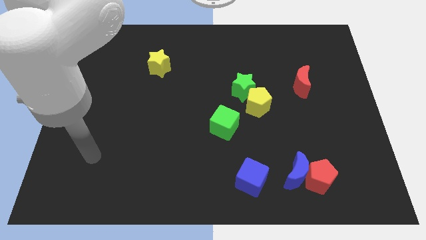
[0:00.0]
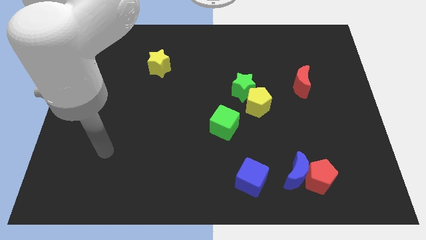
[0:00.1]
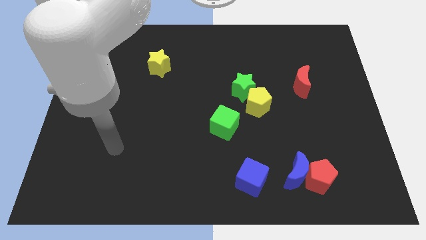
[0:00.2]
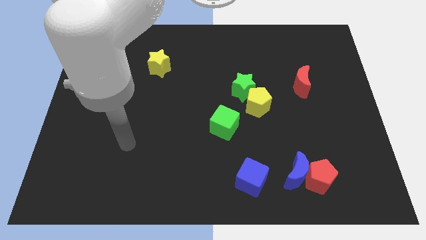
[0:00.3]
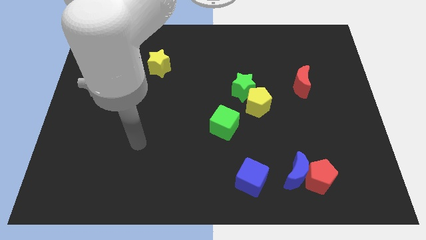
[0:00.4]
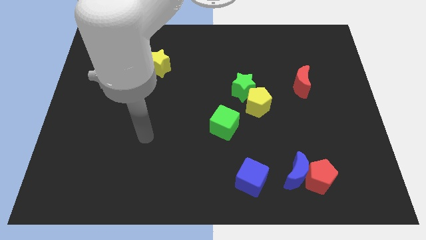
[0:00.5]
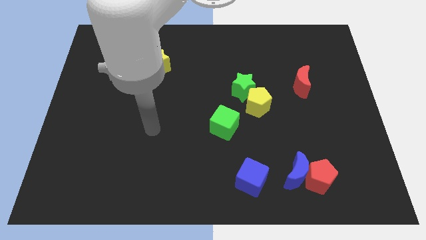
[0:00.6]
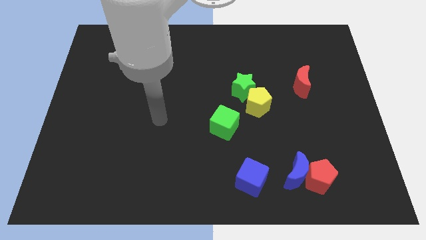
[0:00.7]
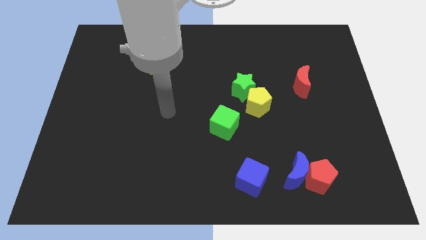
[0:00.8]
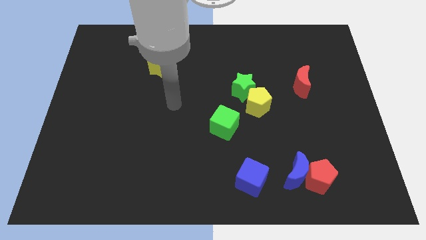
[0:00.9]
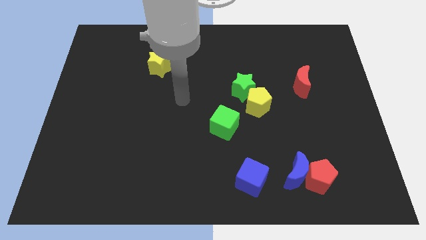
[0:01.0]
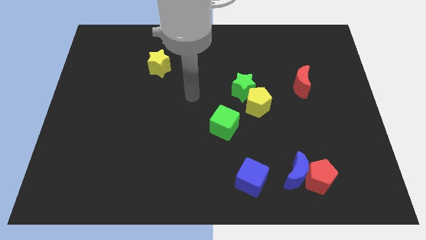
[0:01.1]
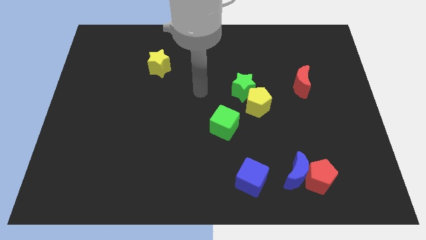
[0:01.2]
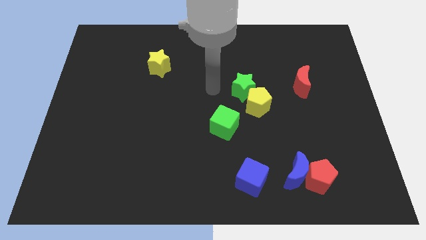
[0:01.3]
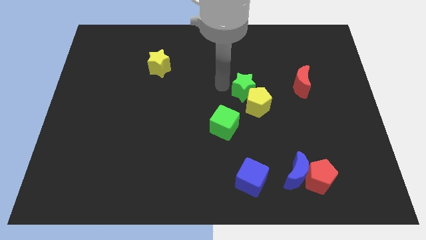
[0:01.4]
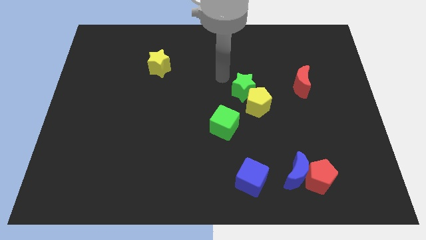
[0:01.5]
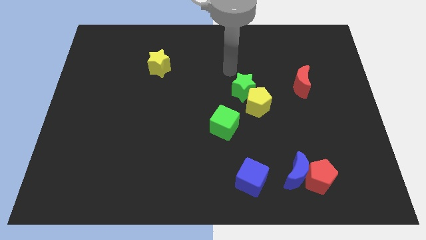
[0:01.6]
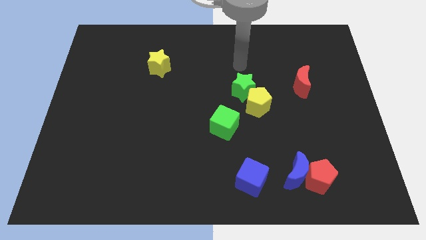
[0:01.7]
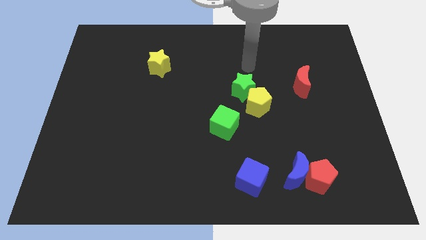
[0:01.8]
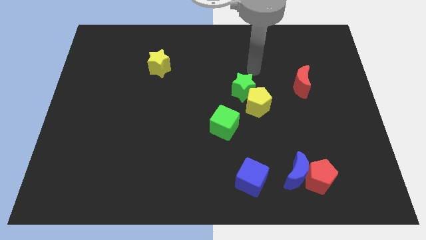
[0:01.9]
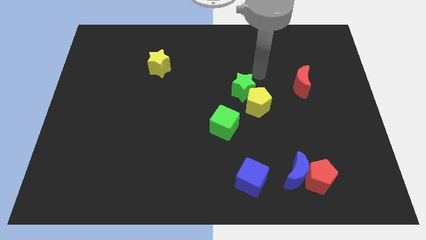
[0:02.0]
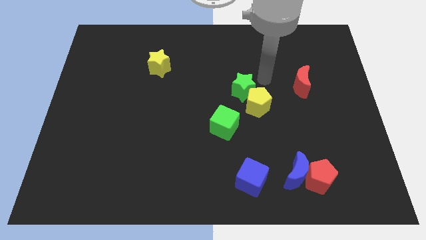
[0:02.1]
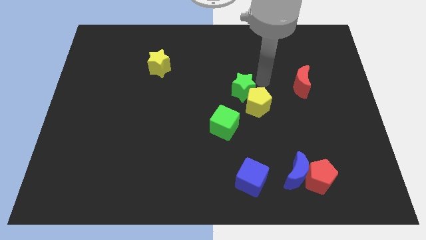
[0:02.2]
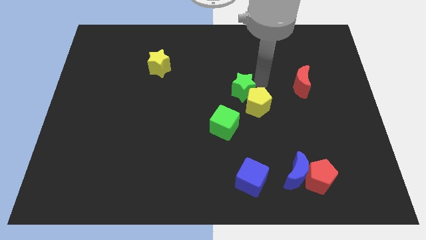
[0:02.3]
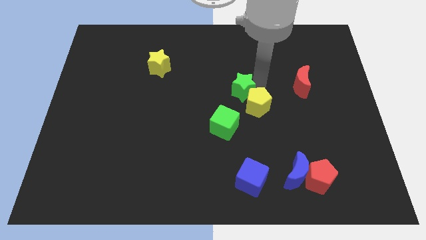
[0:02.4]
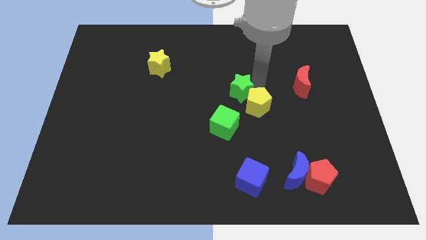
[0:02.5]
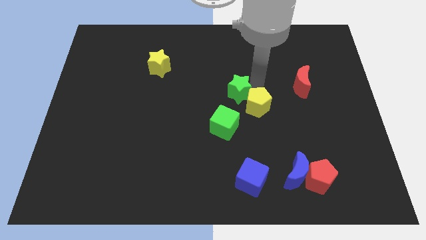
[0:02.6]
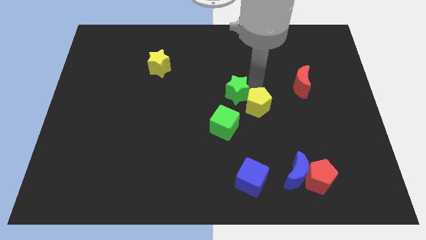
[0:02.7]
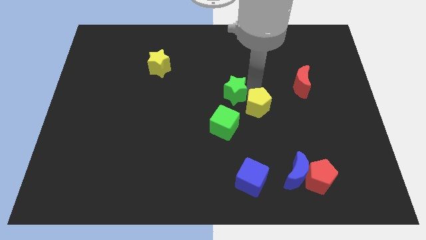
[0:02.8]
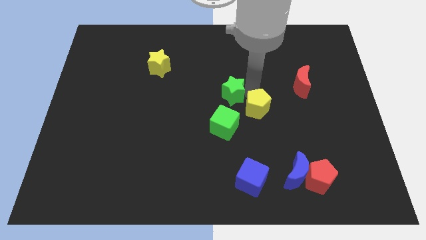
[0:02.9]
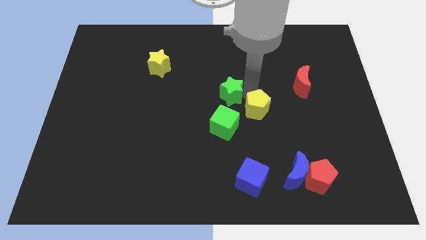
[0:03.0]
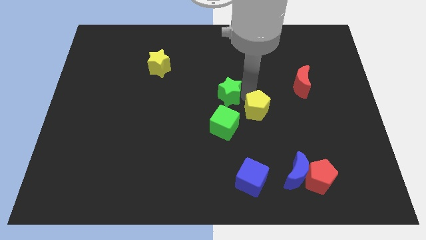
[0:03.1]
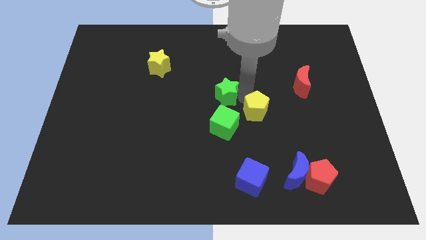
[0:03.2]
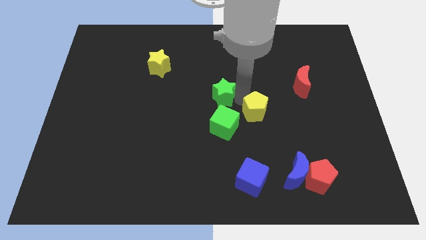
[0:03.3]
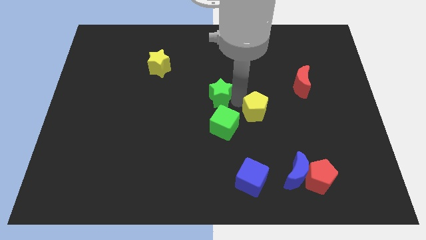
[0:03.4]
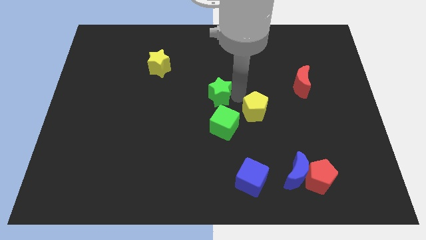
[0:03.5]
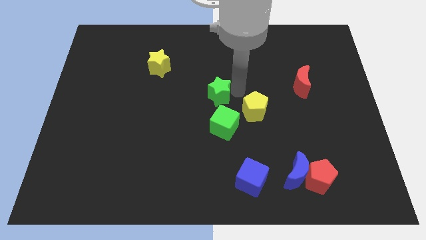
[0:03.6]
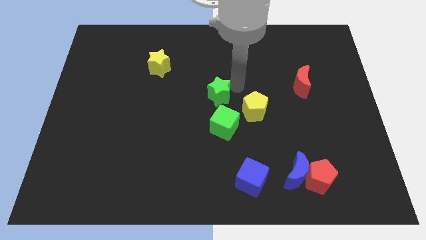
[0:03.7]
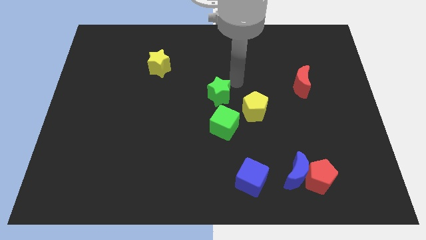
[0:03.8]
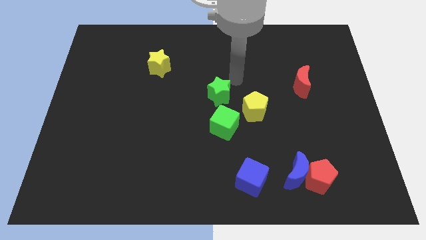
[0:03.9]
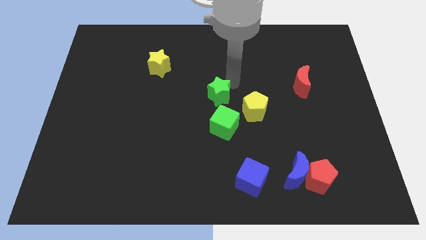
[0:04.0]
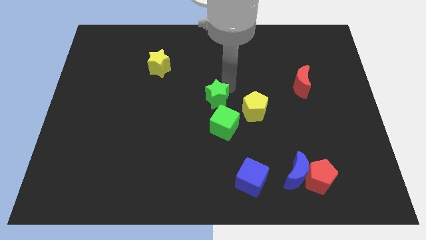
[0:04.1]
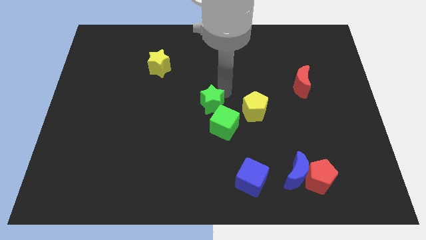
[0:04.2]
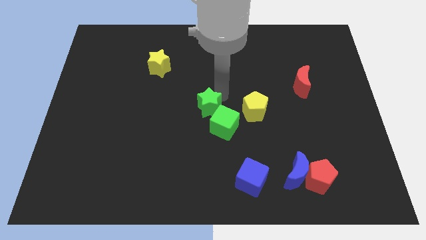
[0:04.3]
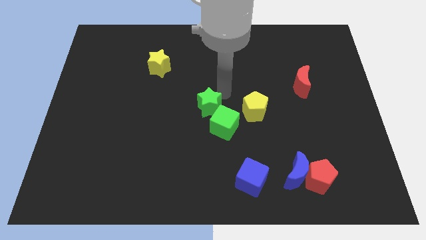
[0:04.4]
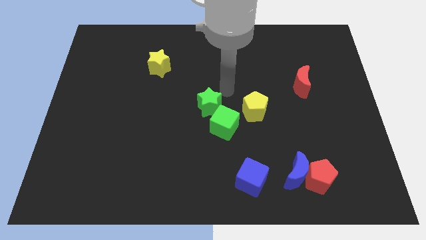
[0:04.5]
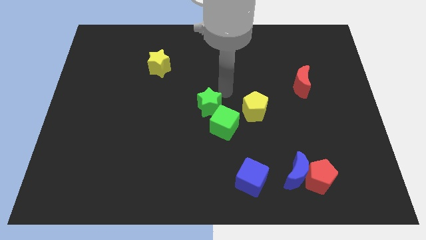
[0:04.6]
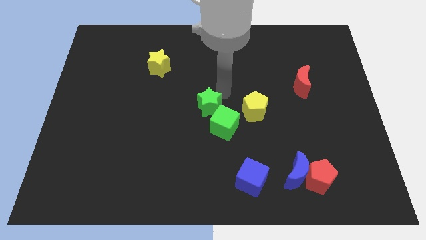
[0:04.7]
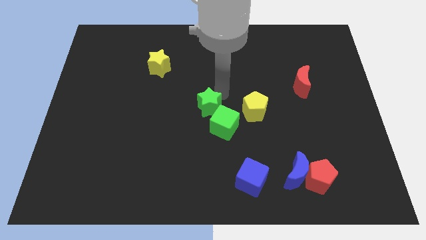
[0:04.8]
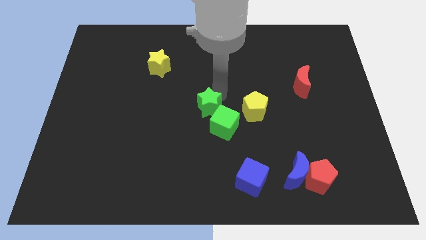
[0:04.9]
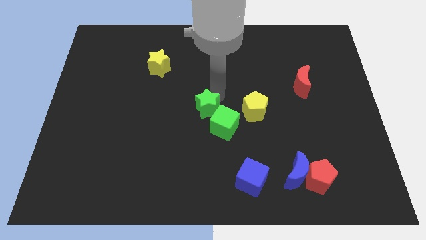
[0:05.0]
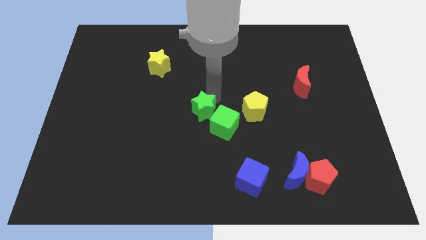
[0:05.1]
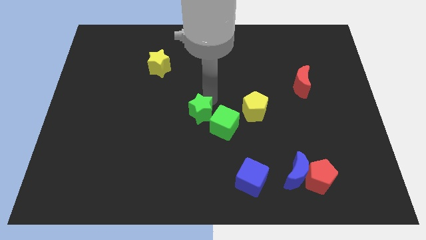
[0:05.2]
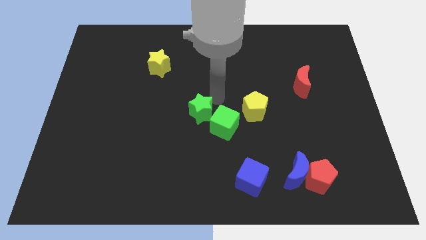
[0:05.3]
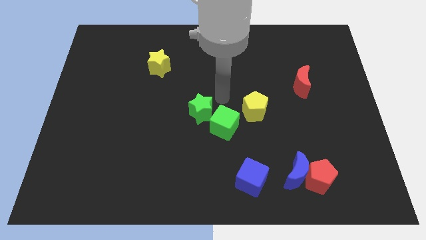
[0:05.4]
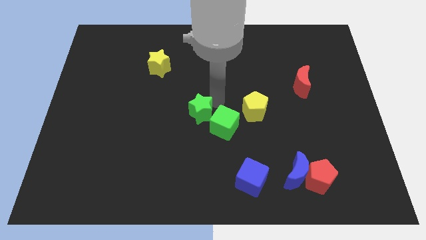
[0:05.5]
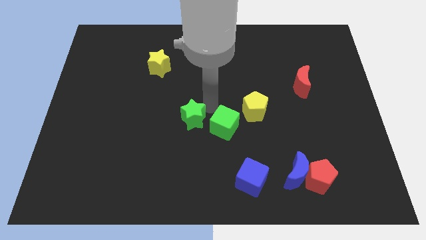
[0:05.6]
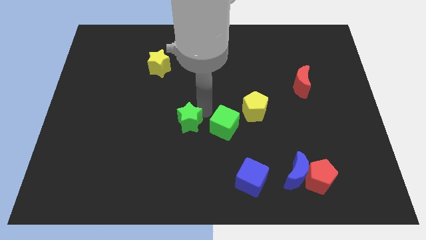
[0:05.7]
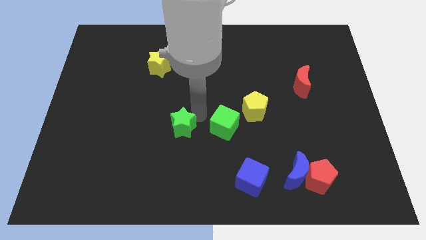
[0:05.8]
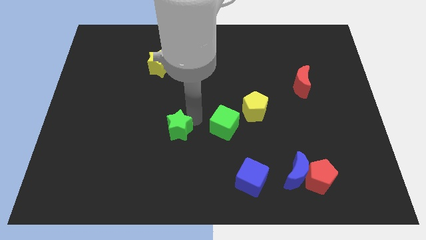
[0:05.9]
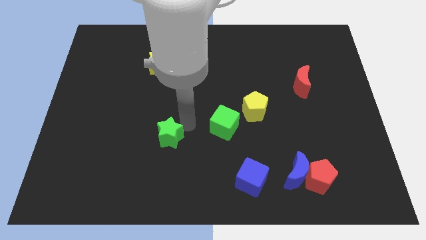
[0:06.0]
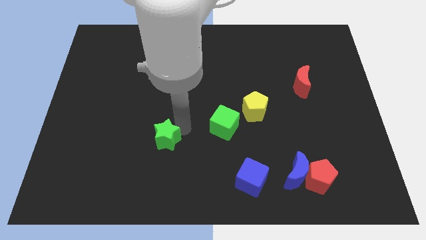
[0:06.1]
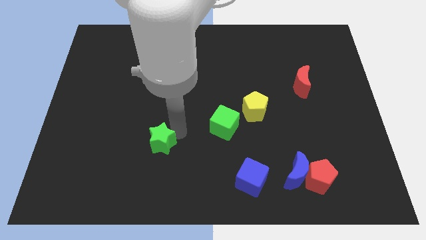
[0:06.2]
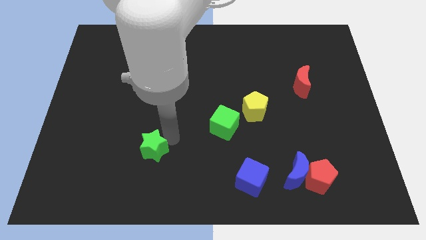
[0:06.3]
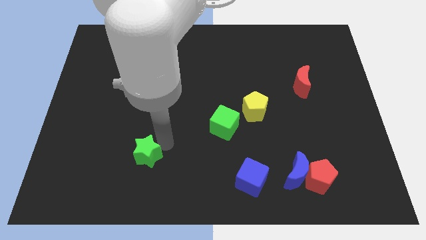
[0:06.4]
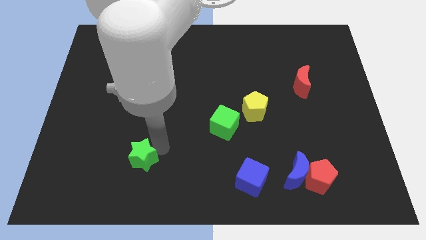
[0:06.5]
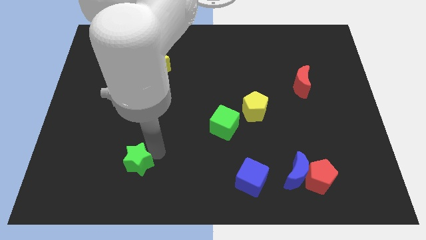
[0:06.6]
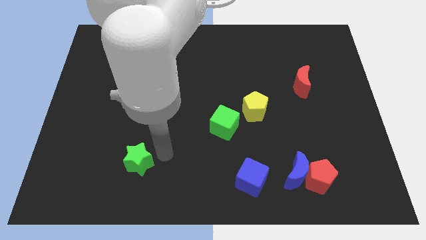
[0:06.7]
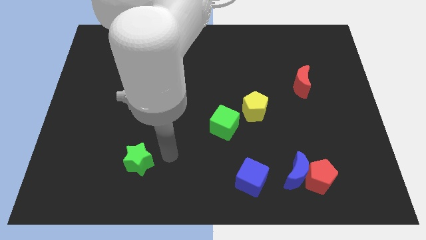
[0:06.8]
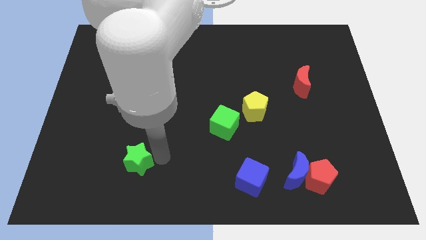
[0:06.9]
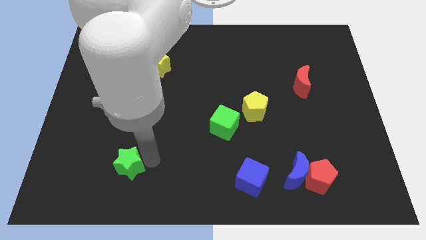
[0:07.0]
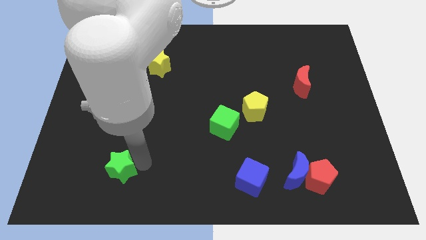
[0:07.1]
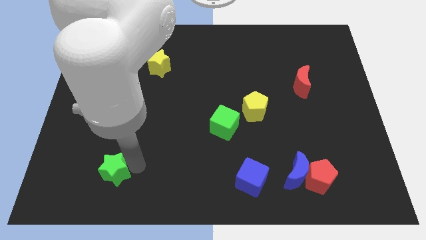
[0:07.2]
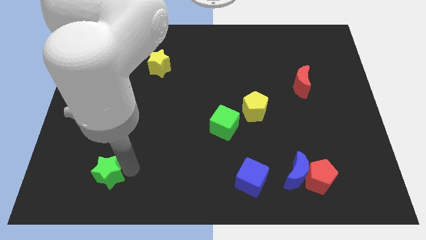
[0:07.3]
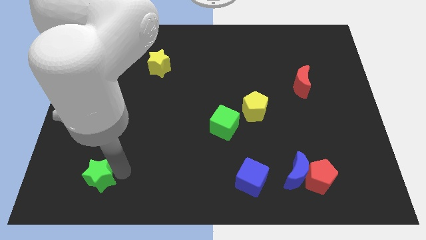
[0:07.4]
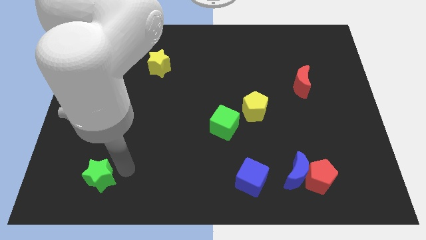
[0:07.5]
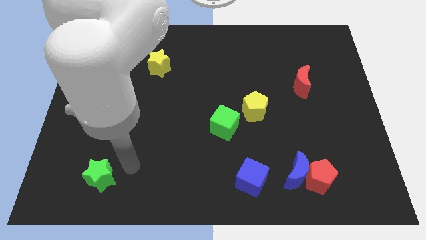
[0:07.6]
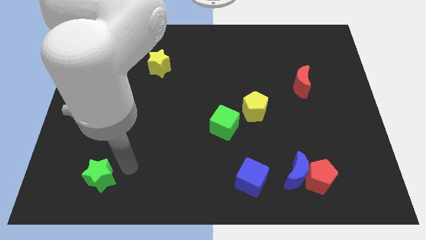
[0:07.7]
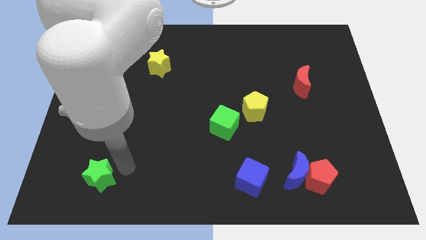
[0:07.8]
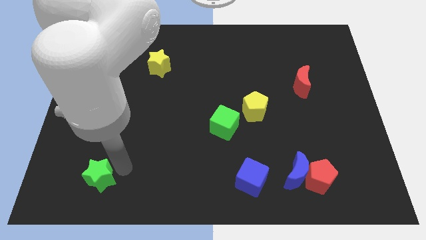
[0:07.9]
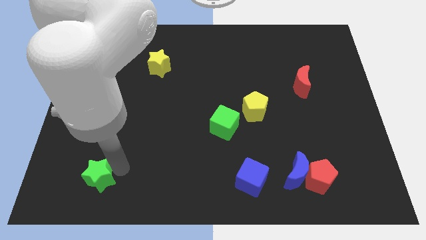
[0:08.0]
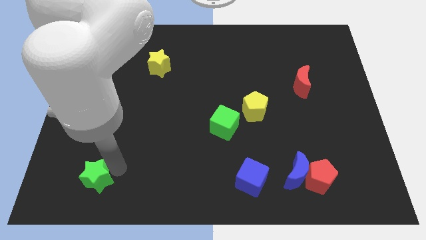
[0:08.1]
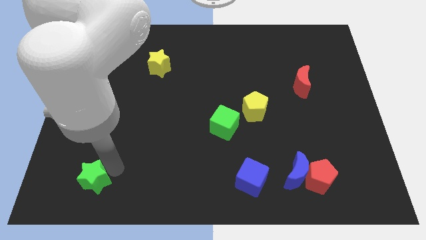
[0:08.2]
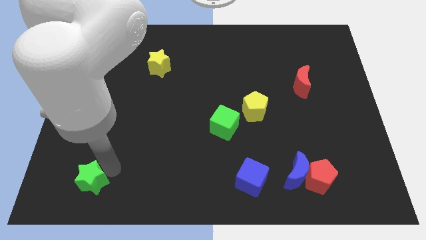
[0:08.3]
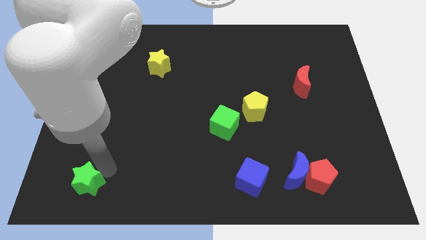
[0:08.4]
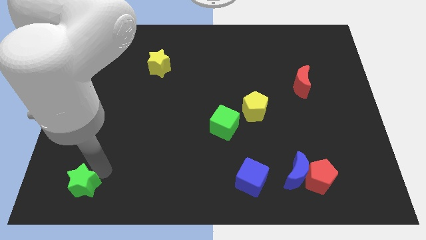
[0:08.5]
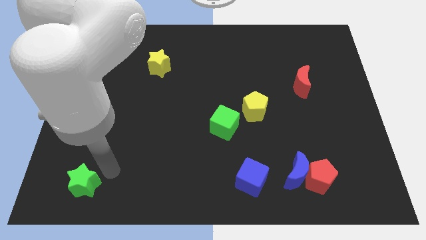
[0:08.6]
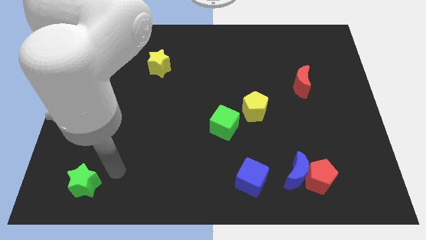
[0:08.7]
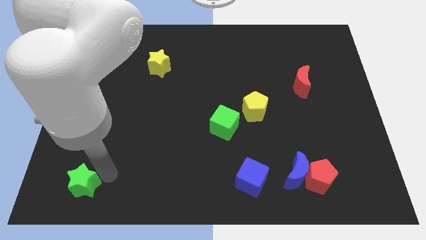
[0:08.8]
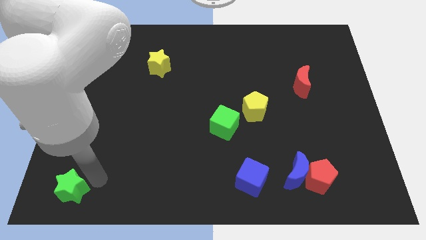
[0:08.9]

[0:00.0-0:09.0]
move the green star to the bottom left corner
